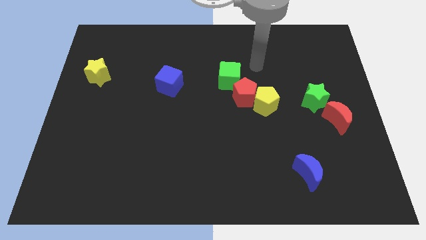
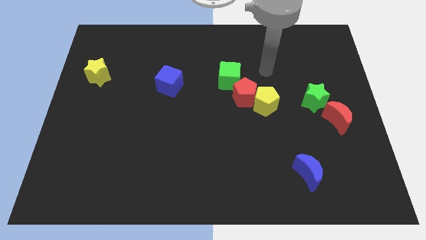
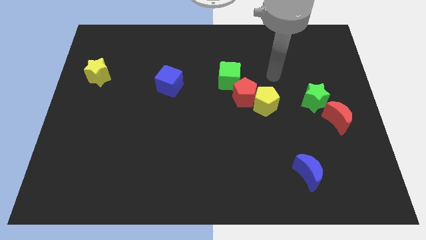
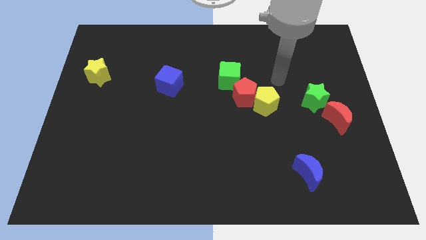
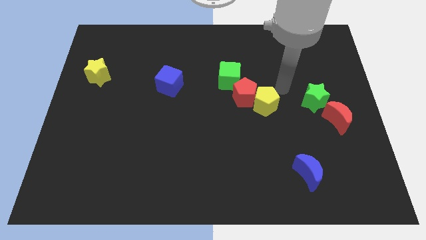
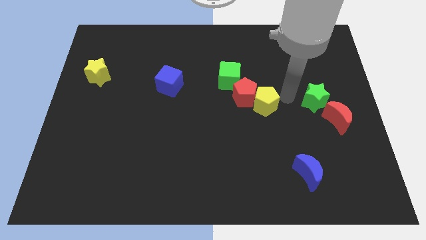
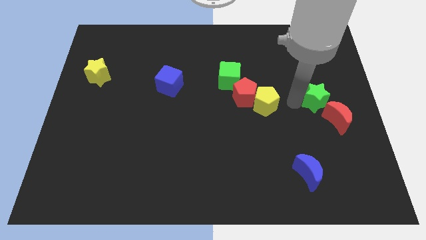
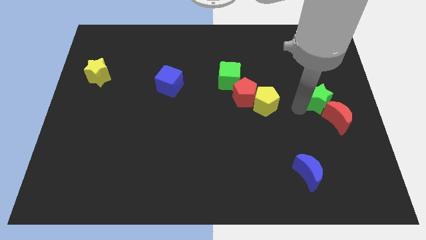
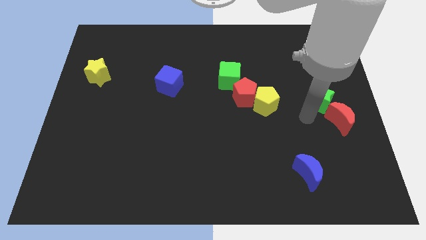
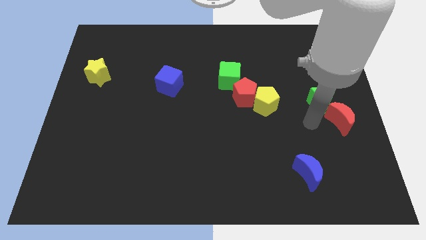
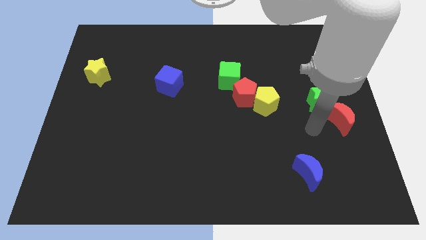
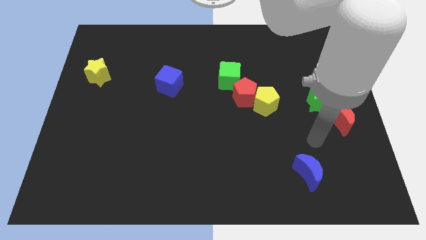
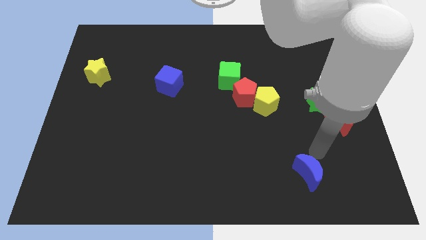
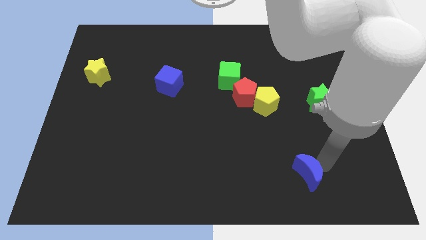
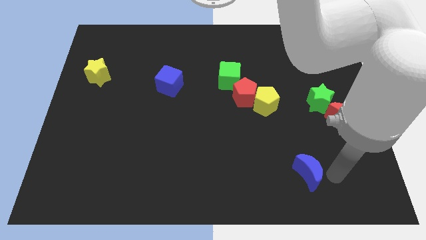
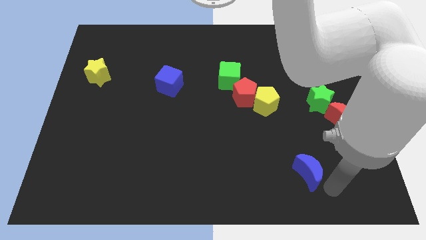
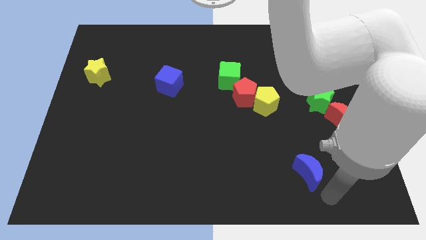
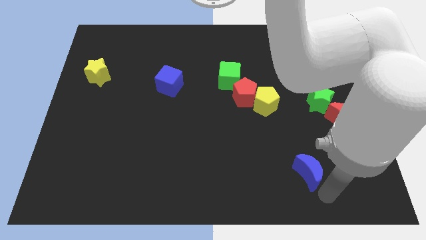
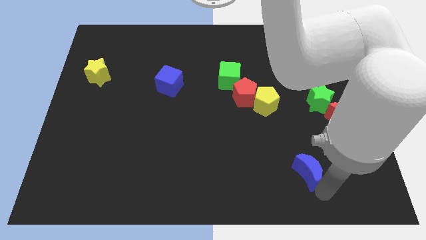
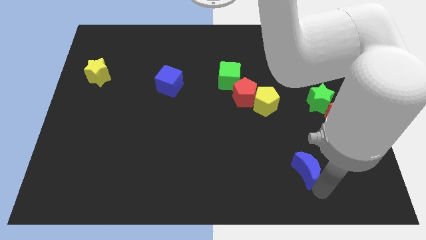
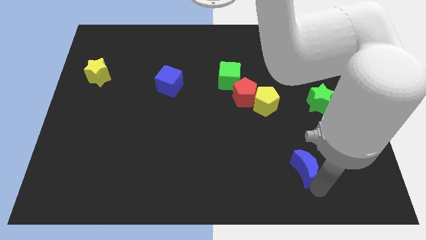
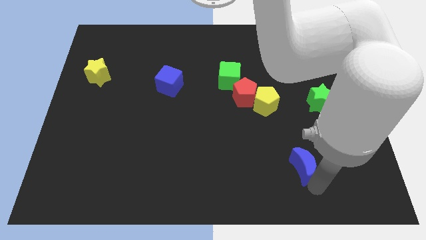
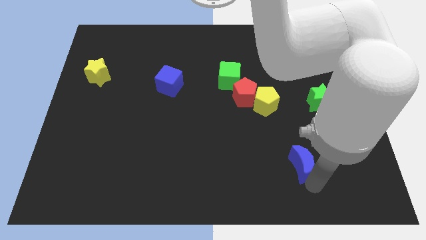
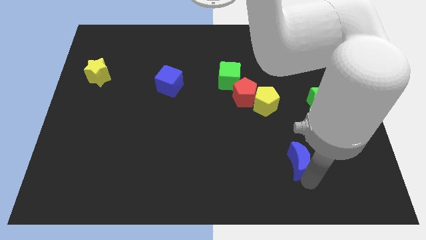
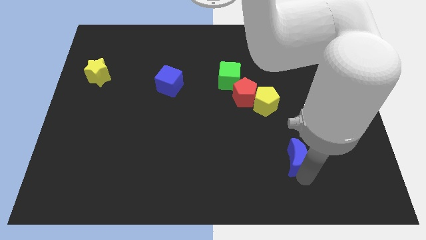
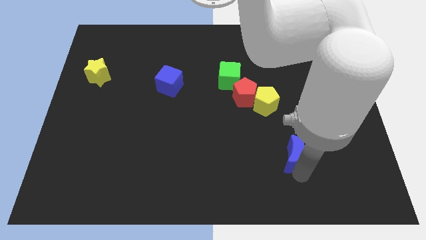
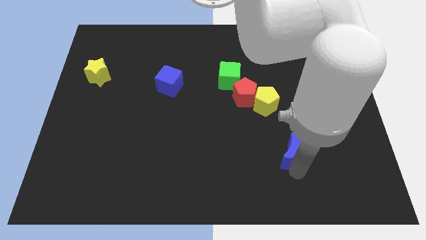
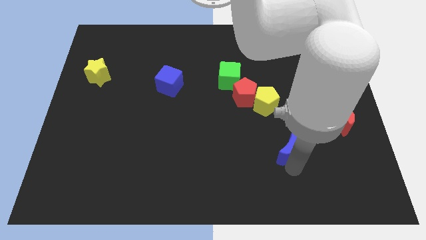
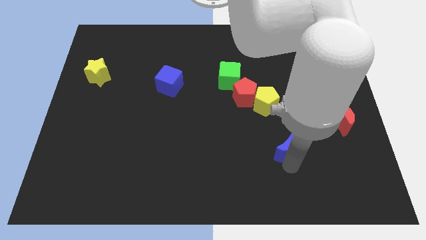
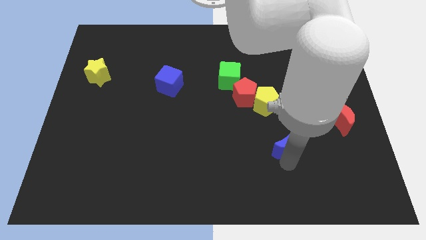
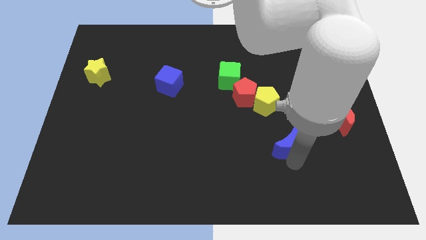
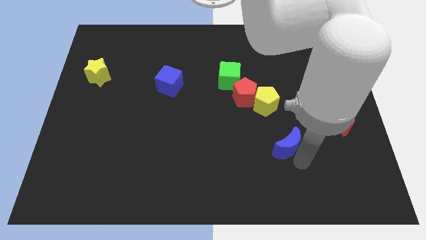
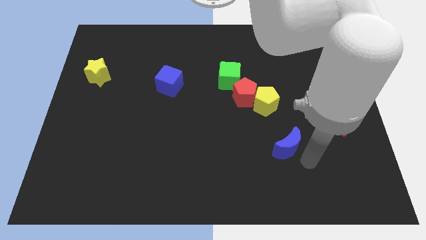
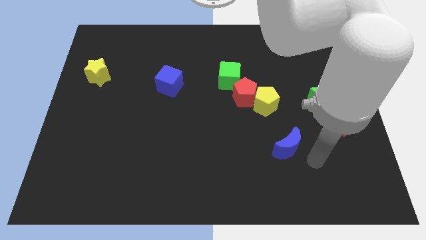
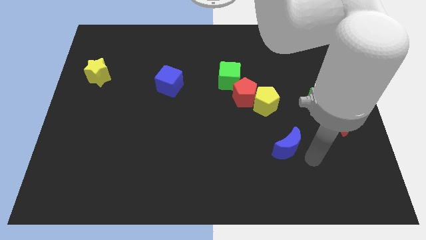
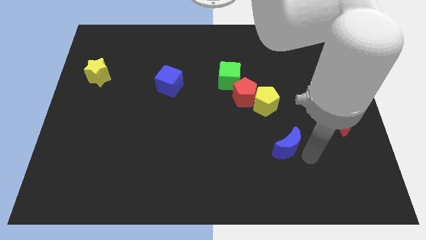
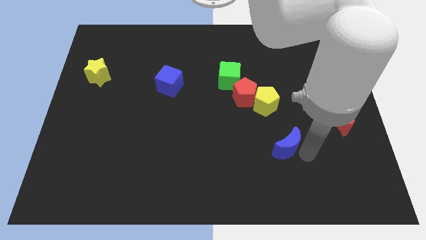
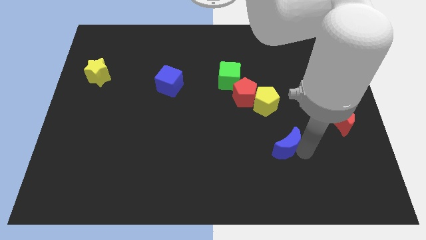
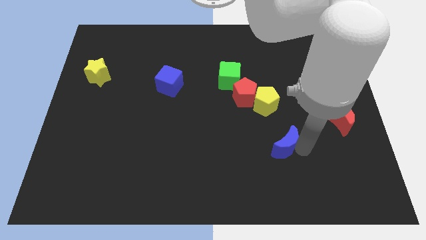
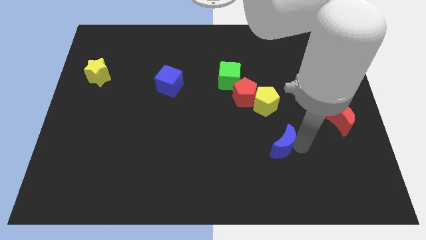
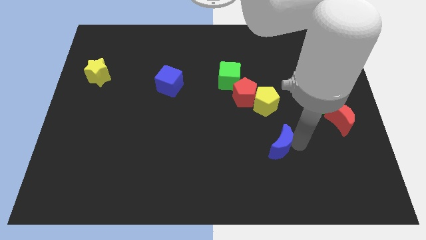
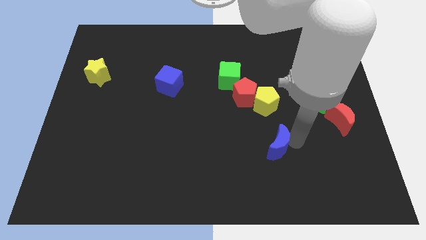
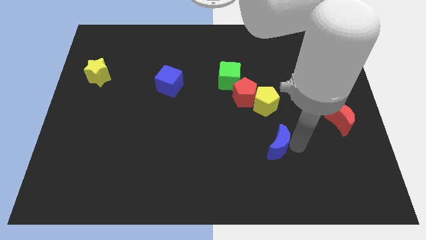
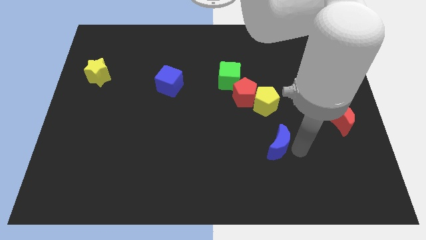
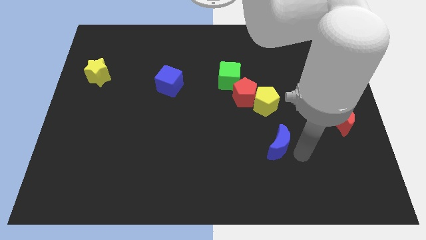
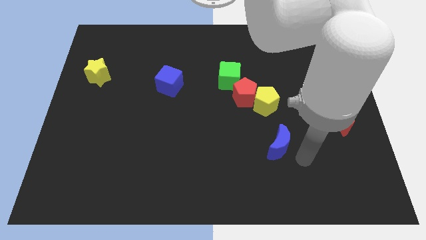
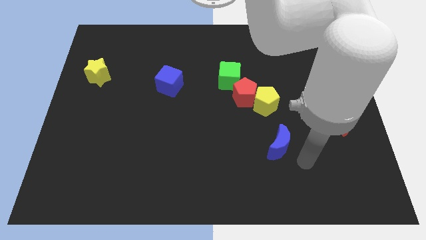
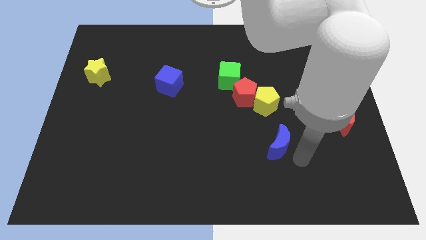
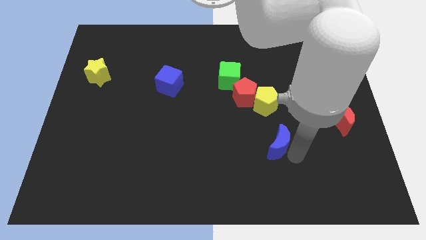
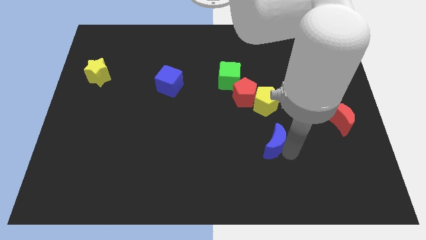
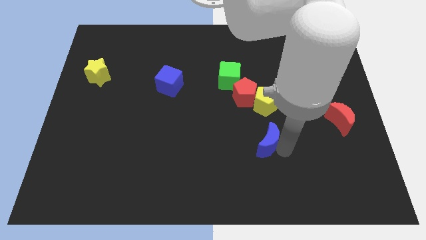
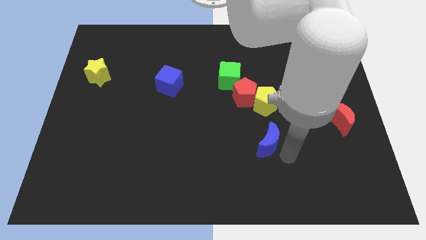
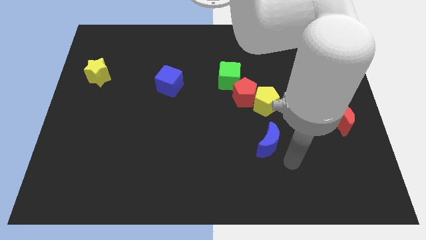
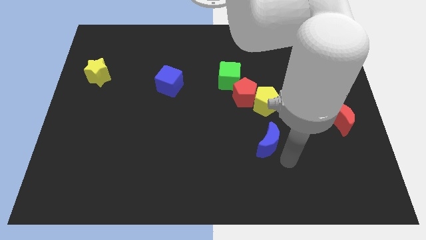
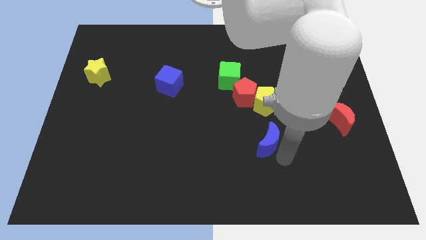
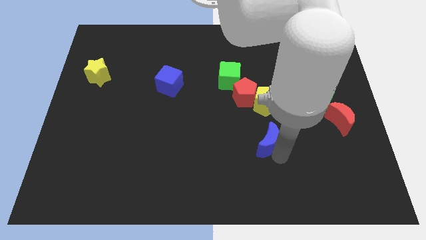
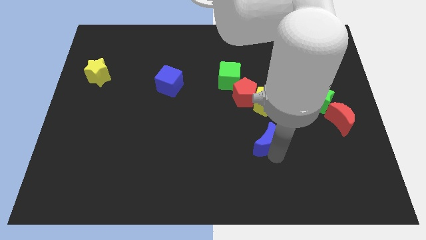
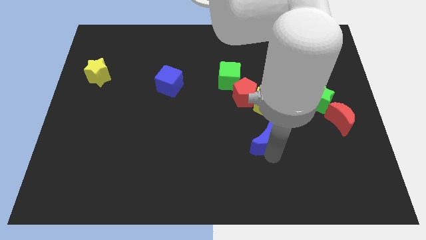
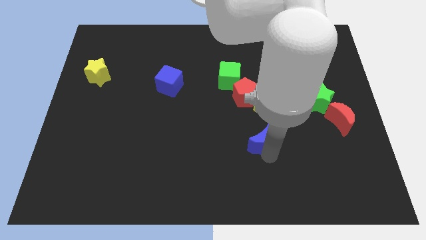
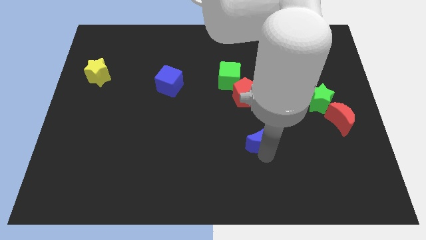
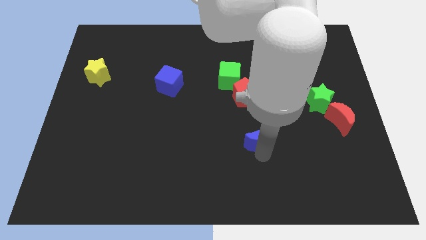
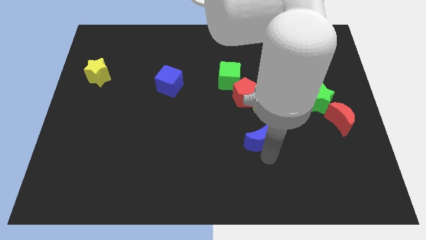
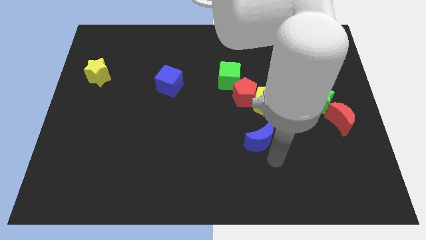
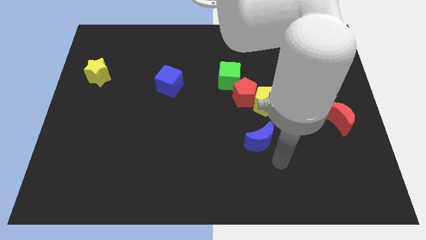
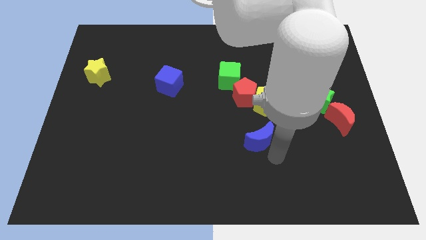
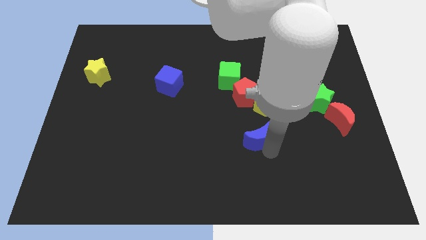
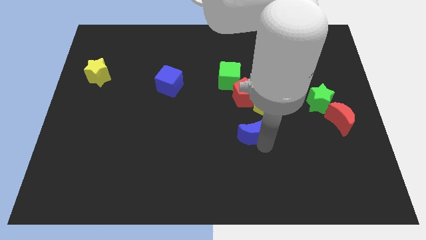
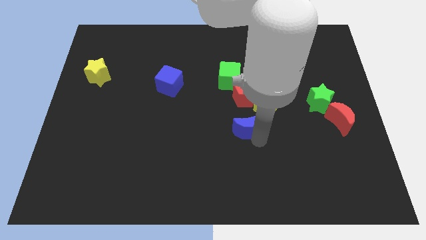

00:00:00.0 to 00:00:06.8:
put the blue moon to the middle of the board
